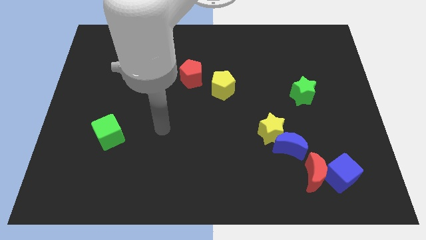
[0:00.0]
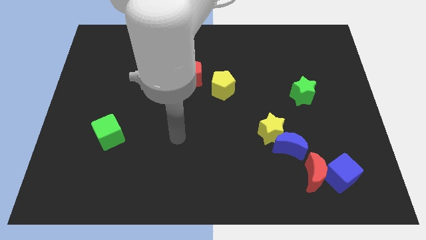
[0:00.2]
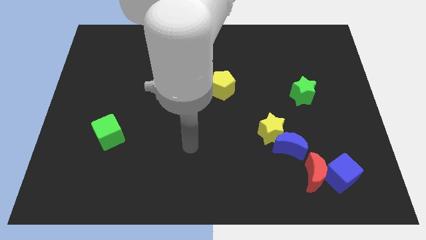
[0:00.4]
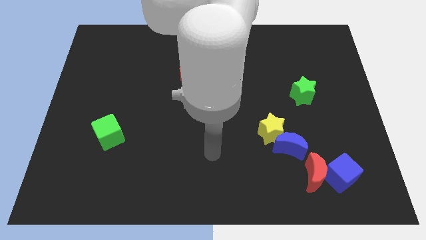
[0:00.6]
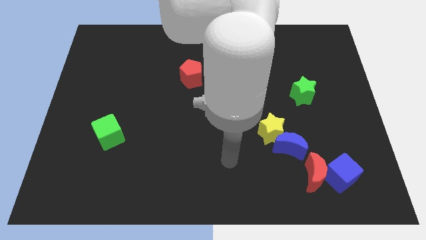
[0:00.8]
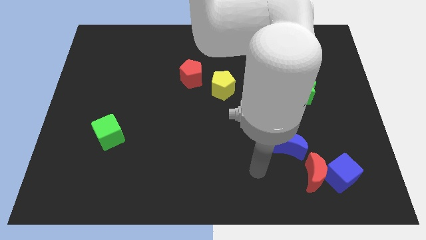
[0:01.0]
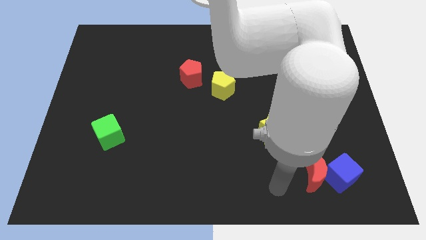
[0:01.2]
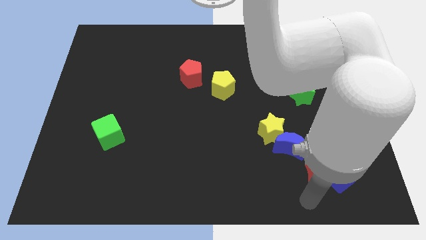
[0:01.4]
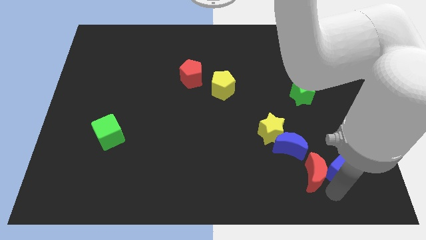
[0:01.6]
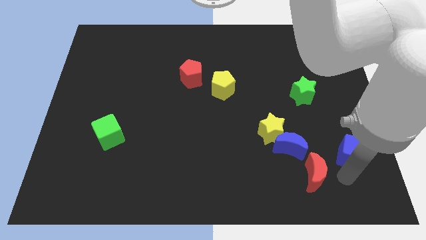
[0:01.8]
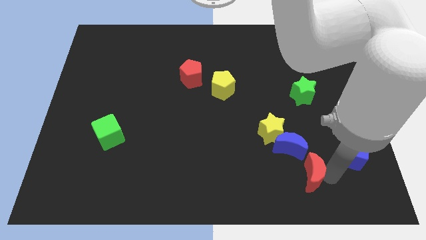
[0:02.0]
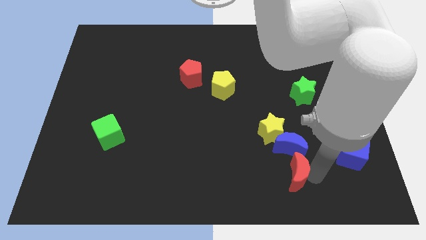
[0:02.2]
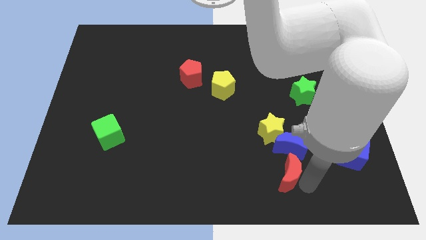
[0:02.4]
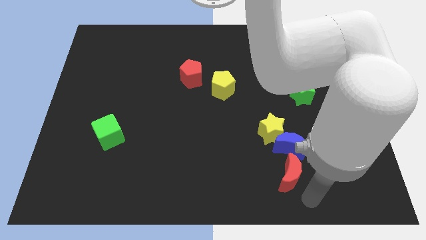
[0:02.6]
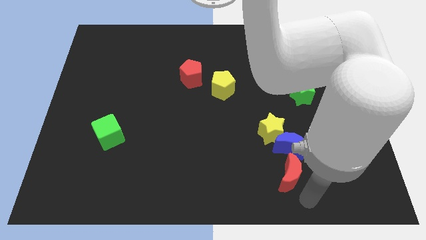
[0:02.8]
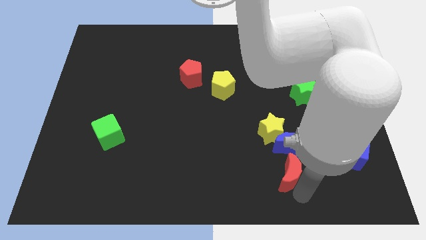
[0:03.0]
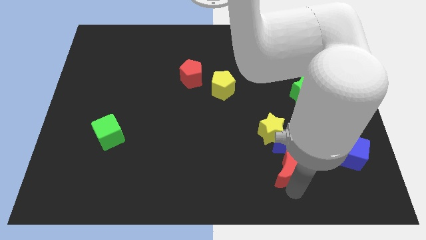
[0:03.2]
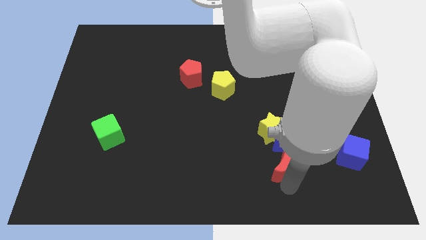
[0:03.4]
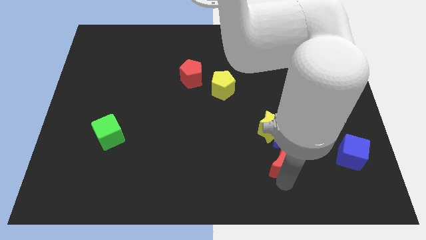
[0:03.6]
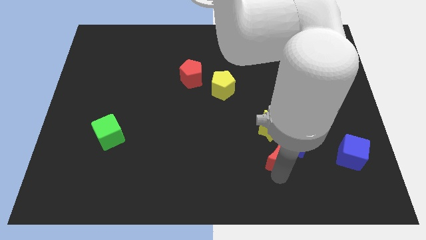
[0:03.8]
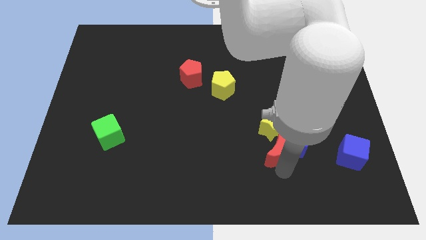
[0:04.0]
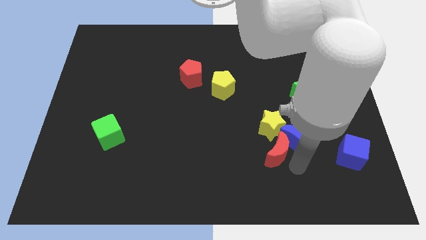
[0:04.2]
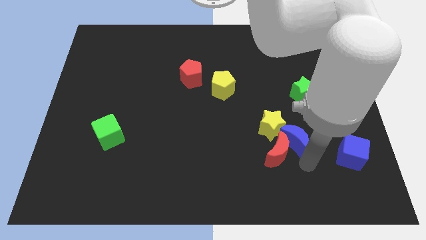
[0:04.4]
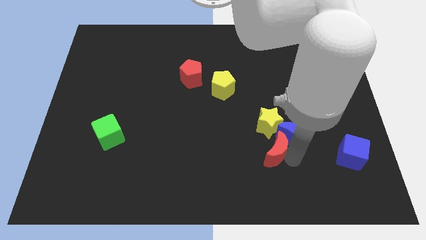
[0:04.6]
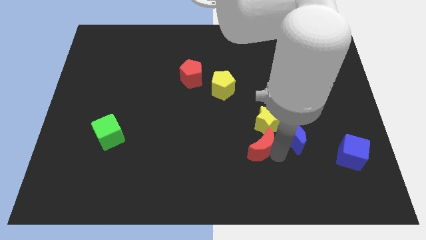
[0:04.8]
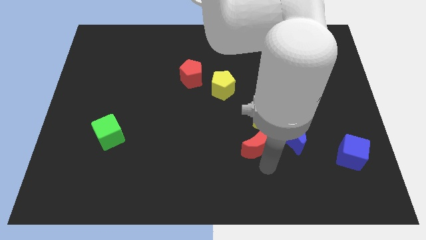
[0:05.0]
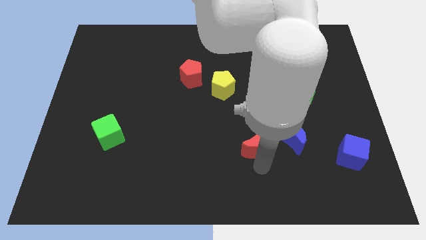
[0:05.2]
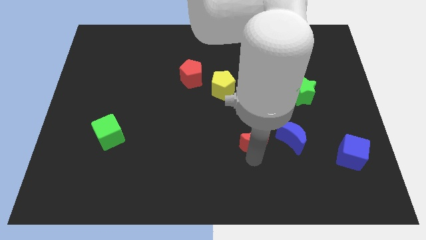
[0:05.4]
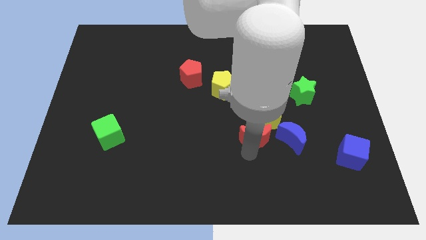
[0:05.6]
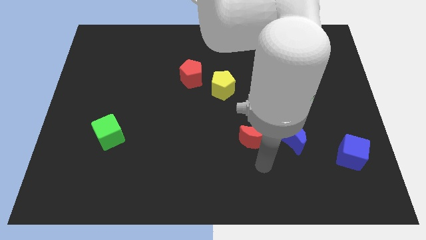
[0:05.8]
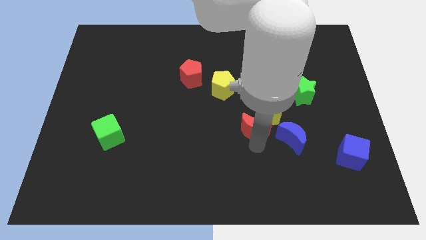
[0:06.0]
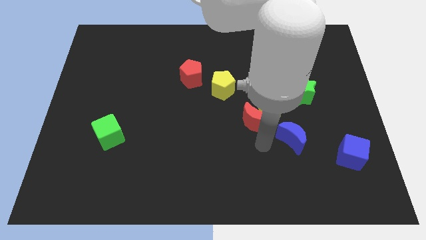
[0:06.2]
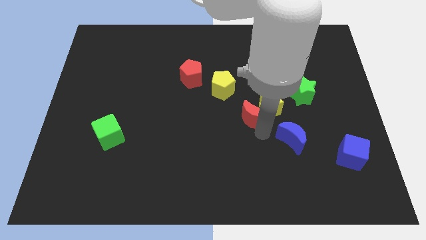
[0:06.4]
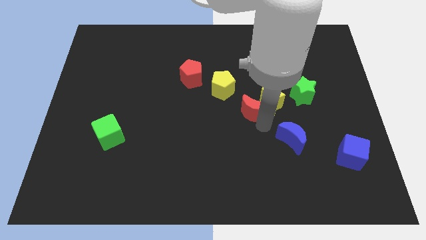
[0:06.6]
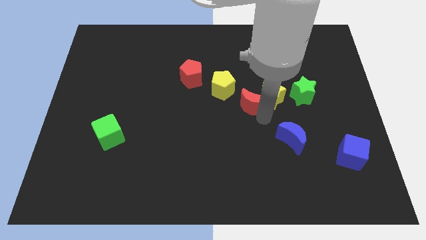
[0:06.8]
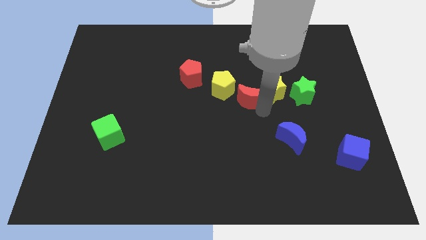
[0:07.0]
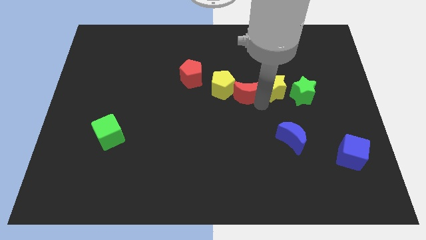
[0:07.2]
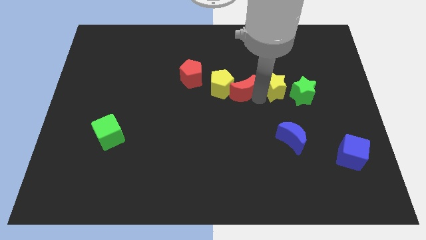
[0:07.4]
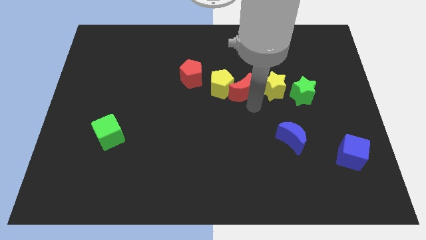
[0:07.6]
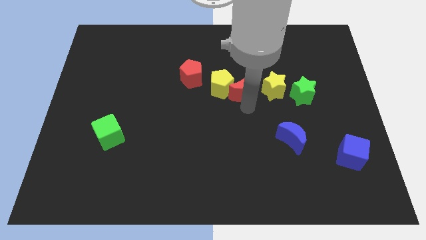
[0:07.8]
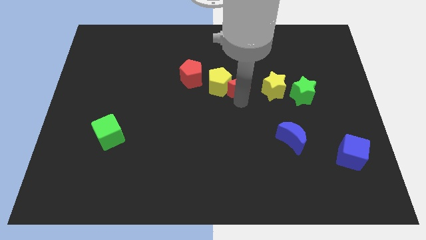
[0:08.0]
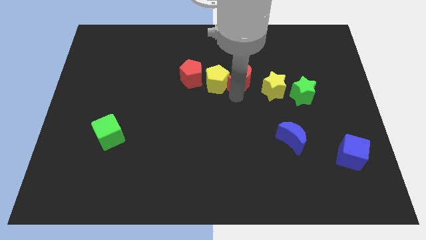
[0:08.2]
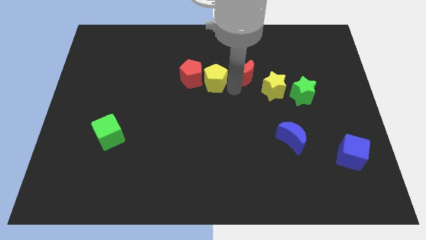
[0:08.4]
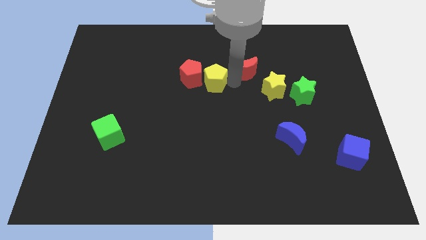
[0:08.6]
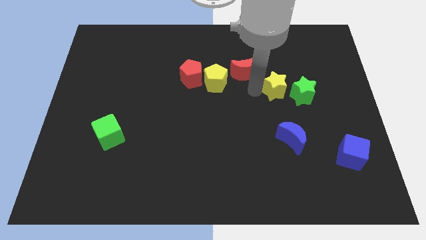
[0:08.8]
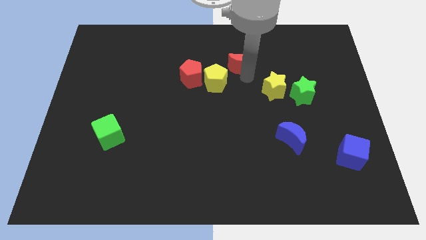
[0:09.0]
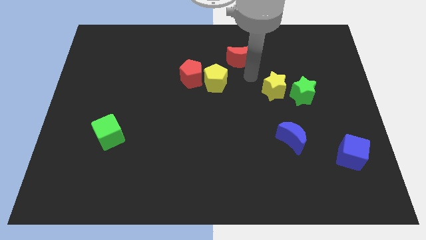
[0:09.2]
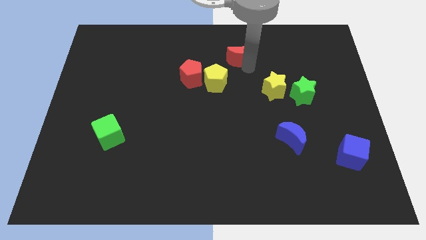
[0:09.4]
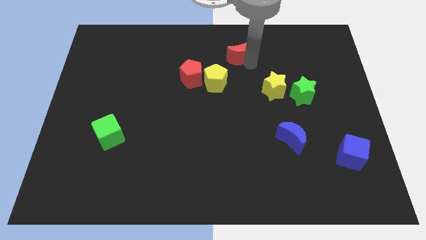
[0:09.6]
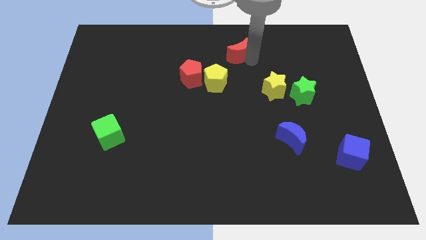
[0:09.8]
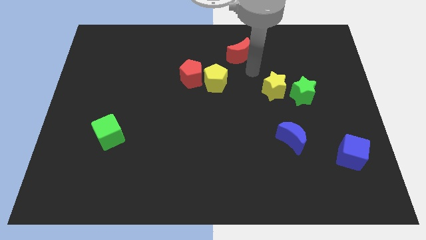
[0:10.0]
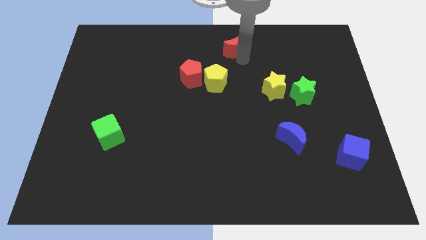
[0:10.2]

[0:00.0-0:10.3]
move the red moon to the towards your base
